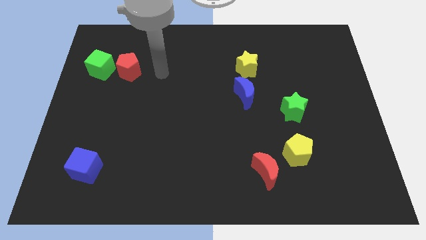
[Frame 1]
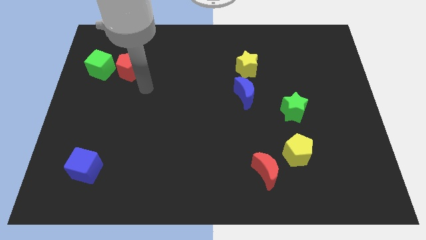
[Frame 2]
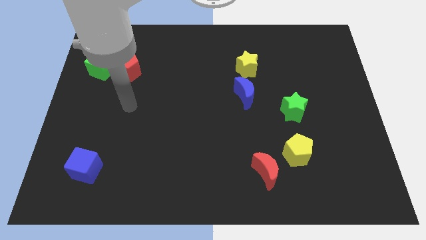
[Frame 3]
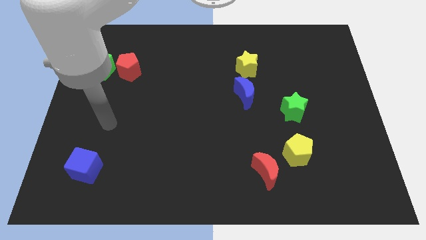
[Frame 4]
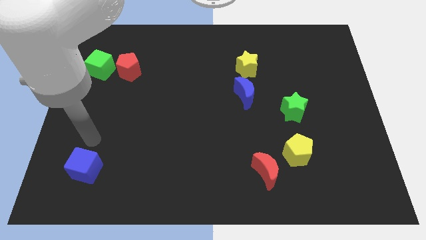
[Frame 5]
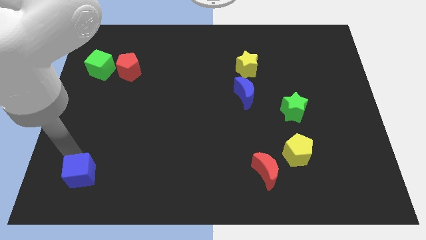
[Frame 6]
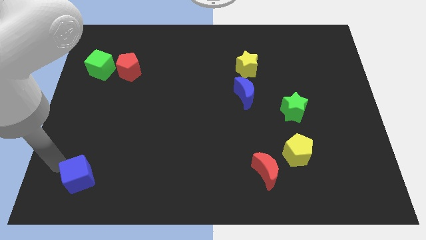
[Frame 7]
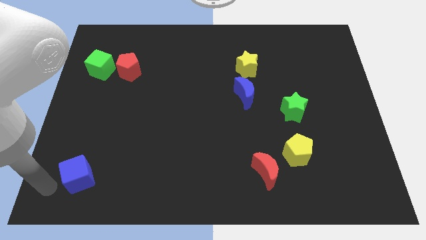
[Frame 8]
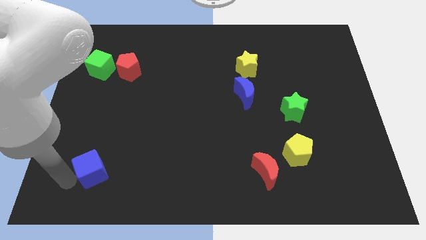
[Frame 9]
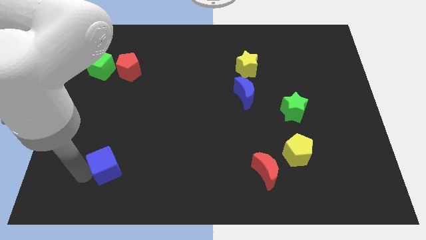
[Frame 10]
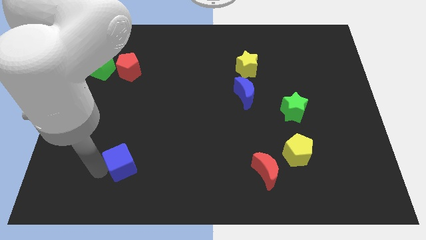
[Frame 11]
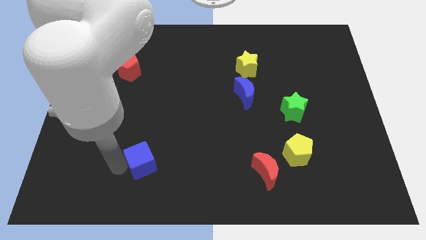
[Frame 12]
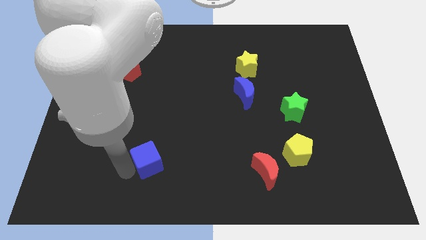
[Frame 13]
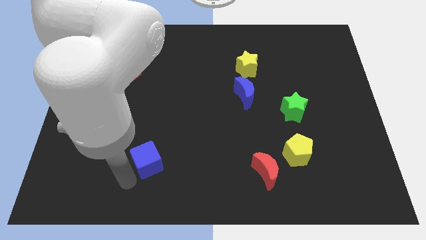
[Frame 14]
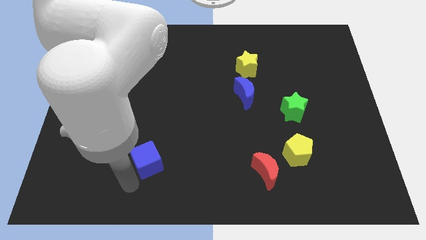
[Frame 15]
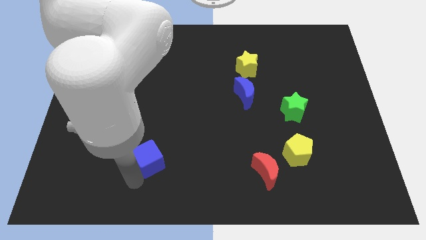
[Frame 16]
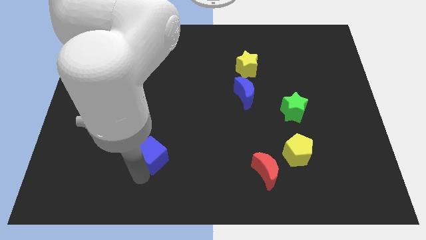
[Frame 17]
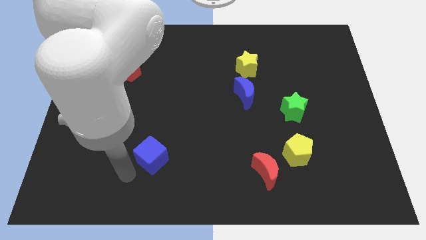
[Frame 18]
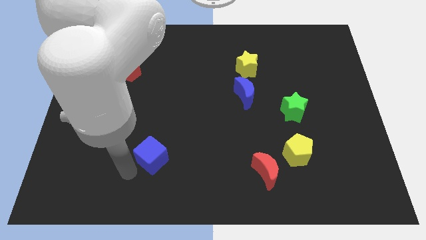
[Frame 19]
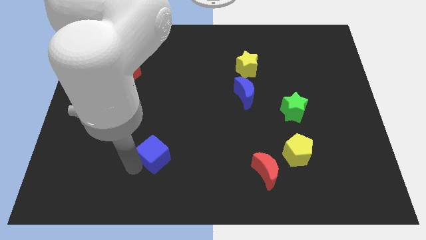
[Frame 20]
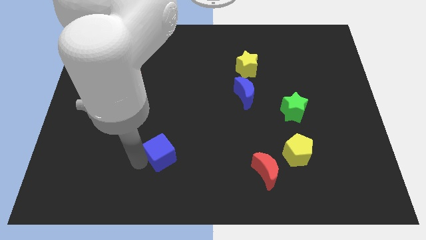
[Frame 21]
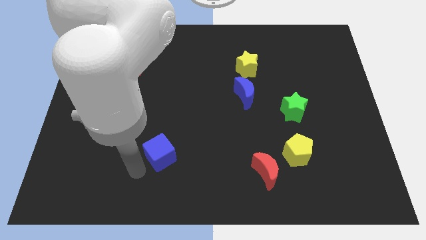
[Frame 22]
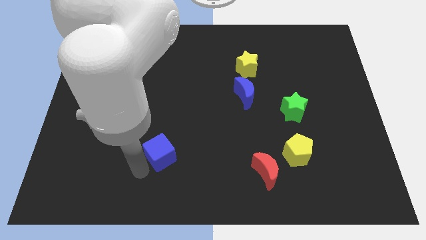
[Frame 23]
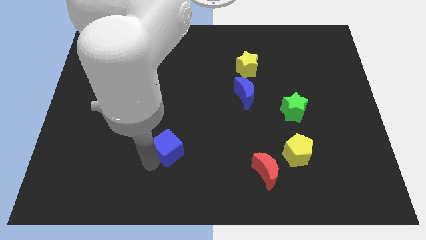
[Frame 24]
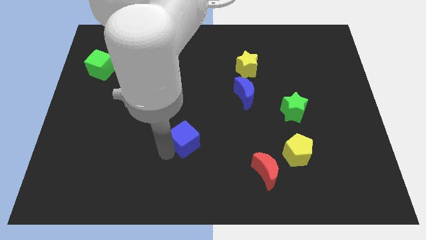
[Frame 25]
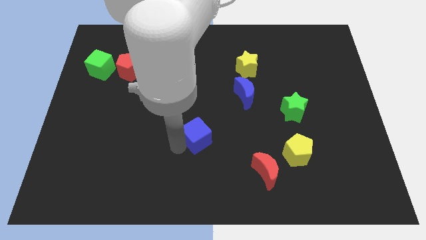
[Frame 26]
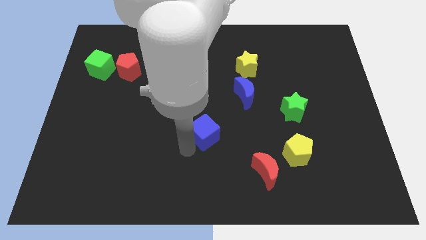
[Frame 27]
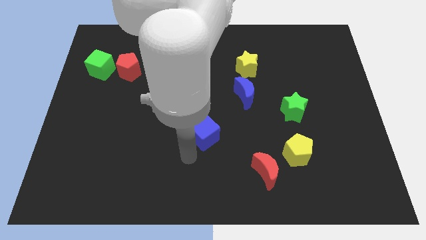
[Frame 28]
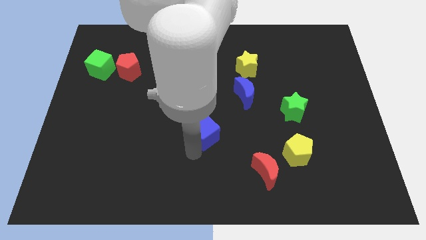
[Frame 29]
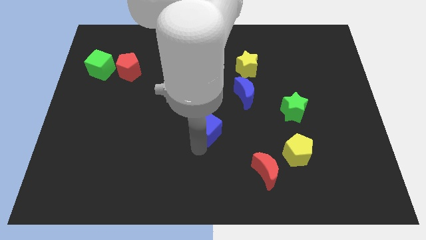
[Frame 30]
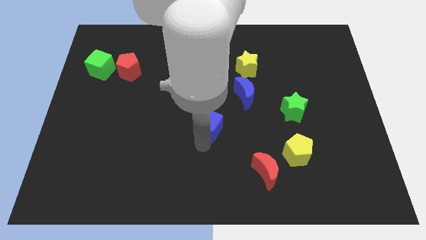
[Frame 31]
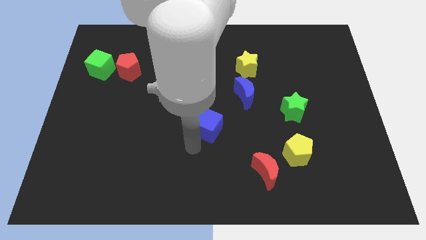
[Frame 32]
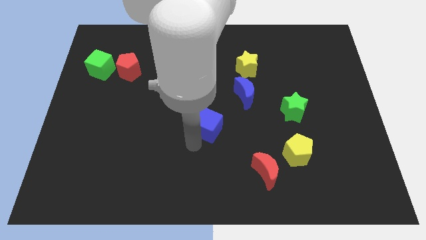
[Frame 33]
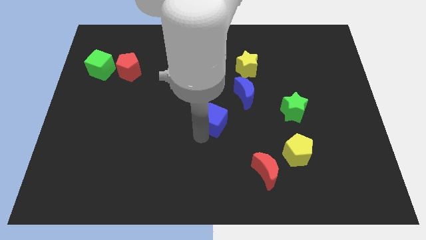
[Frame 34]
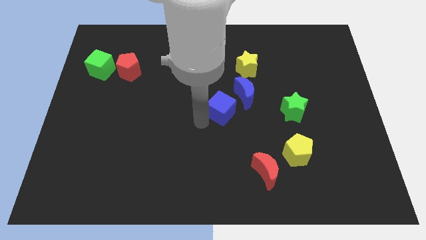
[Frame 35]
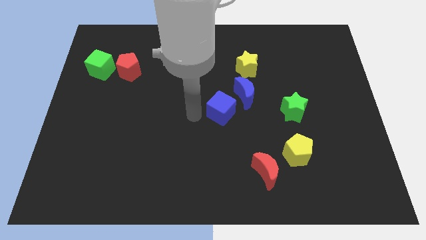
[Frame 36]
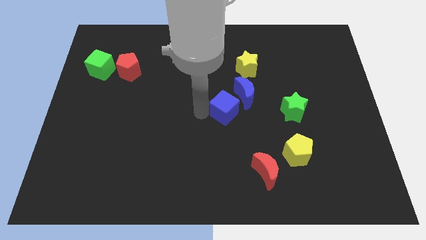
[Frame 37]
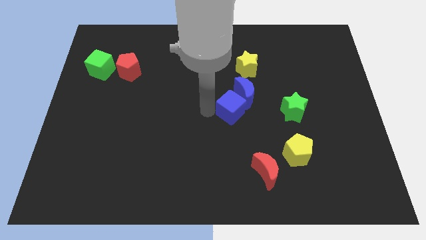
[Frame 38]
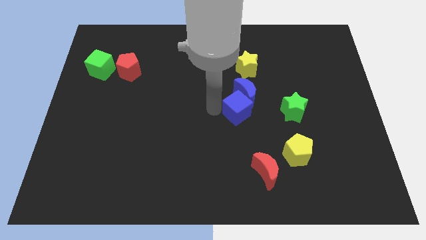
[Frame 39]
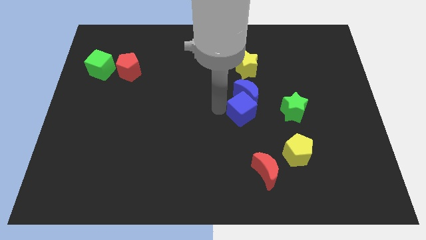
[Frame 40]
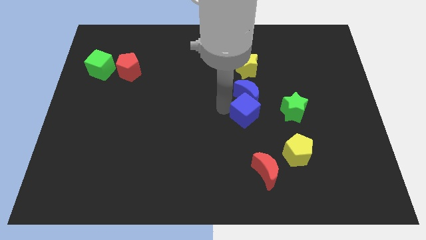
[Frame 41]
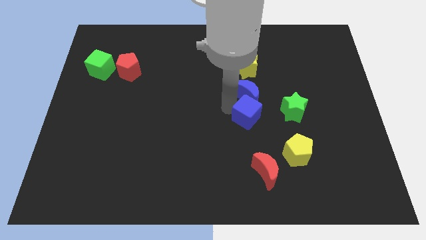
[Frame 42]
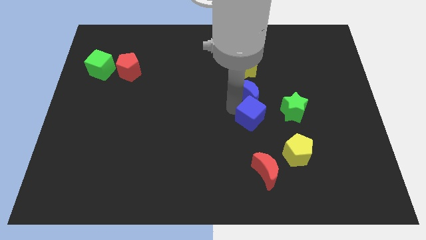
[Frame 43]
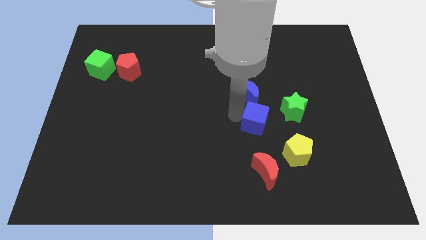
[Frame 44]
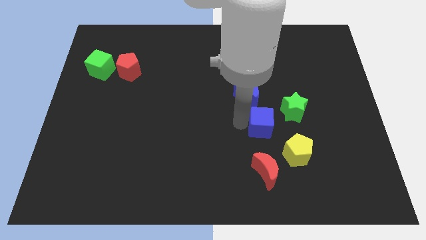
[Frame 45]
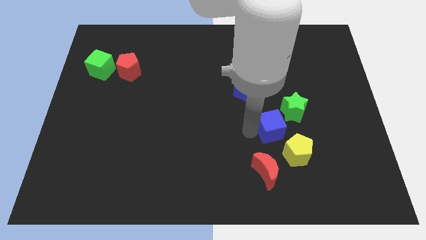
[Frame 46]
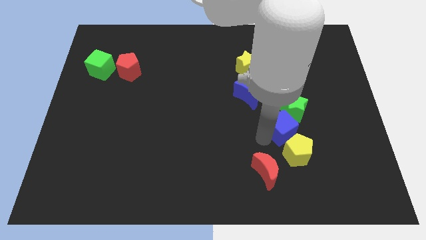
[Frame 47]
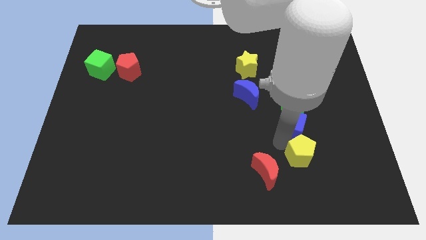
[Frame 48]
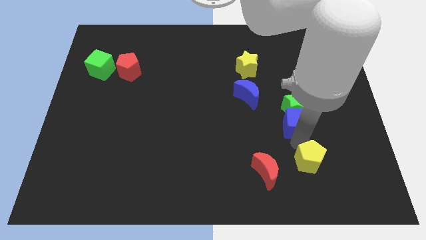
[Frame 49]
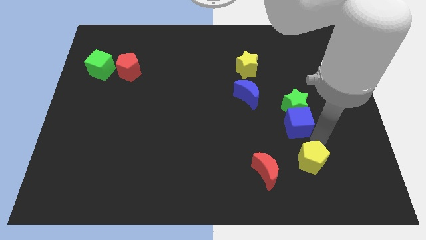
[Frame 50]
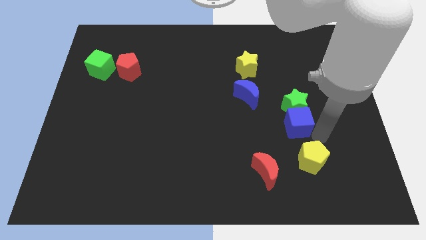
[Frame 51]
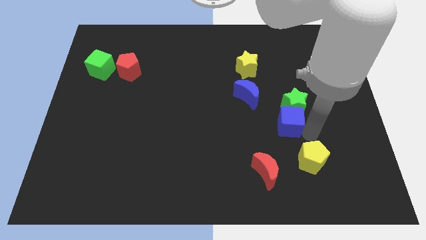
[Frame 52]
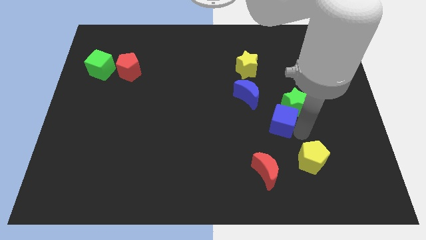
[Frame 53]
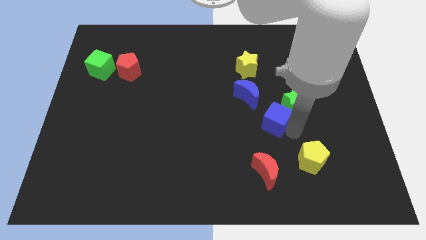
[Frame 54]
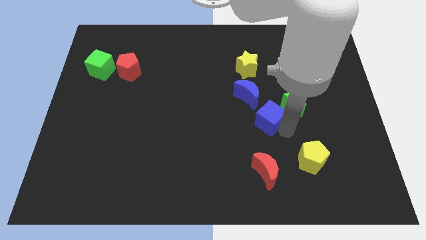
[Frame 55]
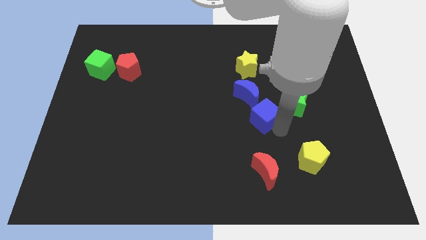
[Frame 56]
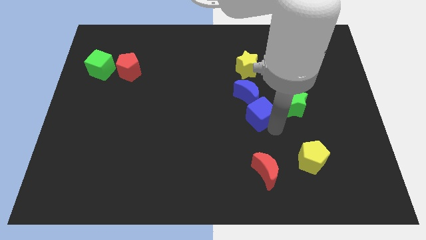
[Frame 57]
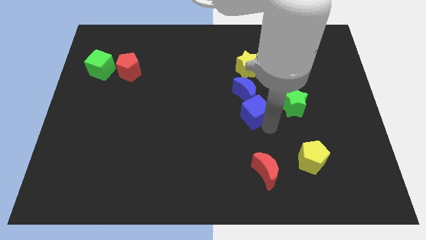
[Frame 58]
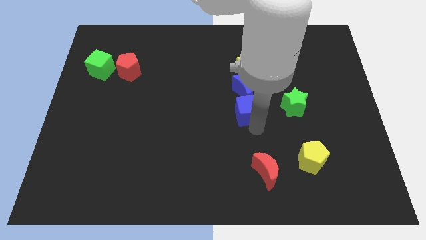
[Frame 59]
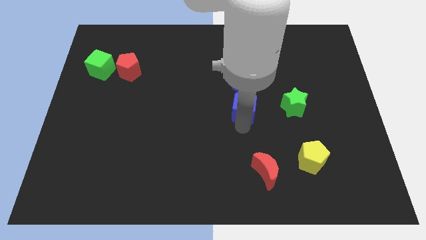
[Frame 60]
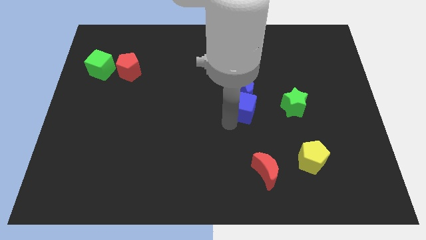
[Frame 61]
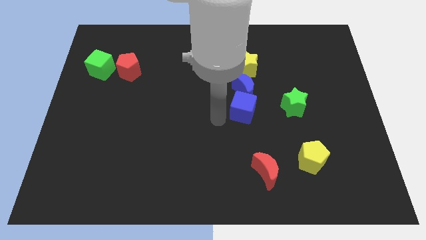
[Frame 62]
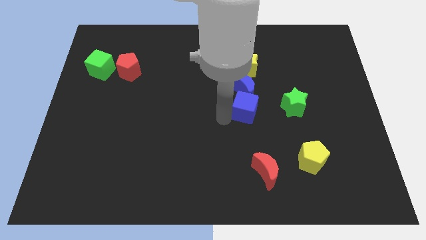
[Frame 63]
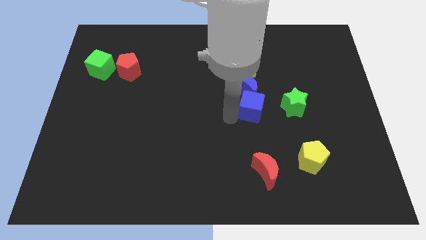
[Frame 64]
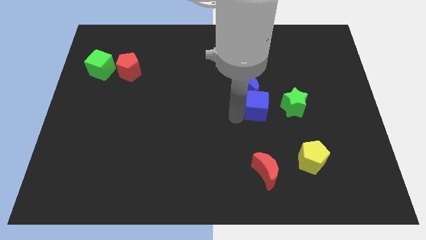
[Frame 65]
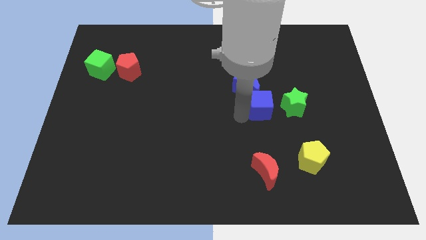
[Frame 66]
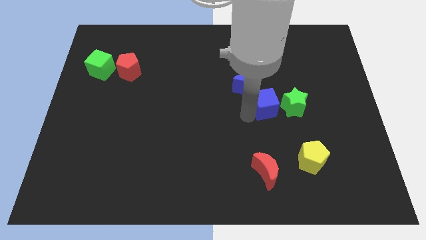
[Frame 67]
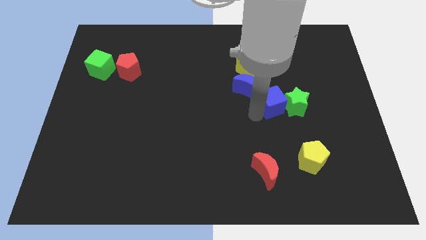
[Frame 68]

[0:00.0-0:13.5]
slide the blue cube to the right of the blue moon

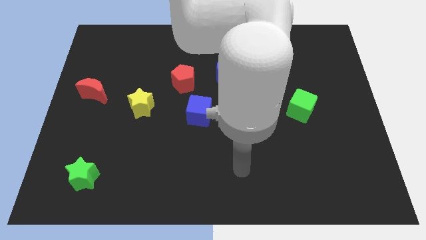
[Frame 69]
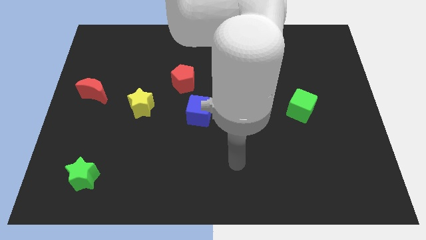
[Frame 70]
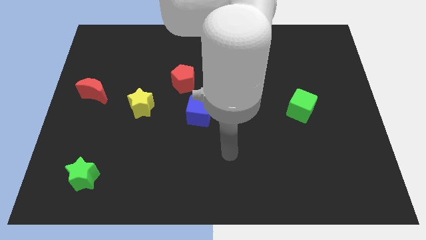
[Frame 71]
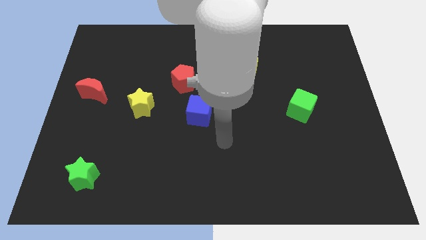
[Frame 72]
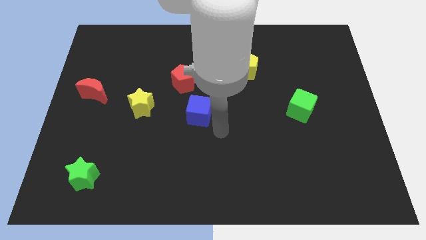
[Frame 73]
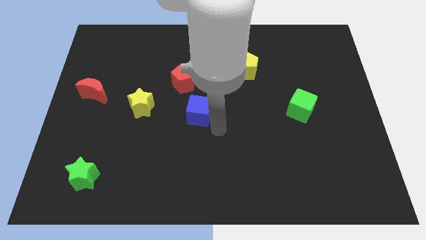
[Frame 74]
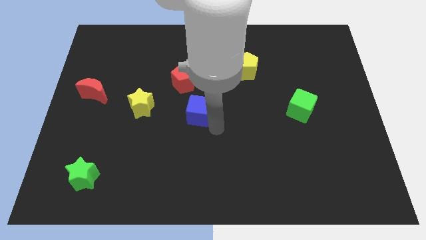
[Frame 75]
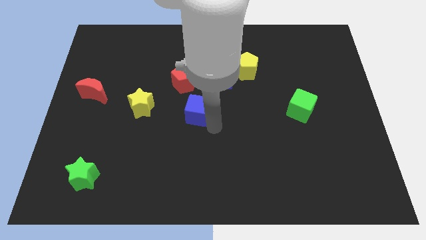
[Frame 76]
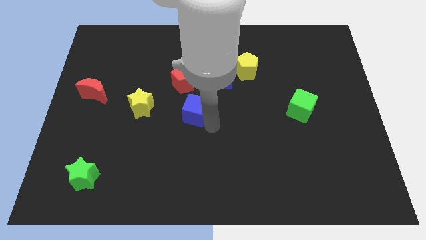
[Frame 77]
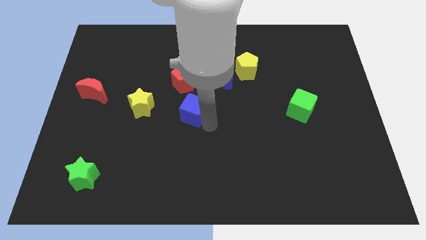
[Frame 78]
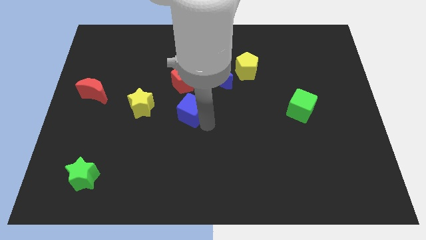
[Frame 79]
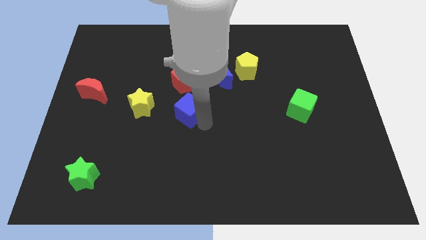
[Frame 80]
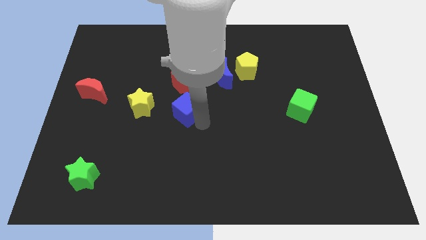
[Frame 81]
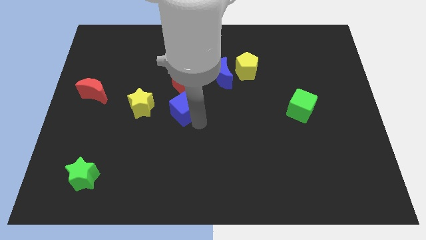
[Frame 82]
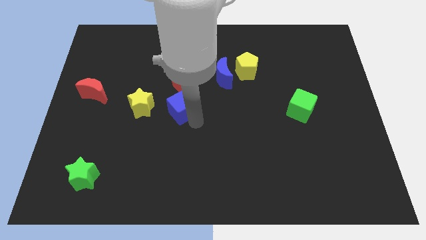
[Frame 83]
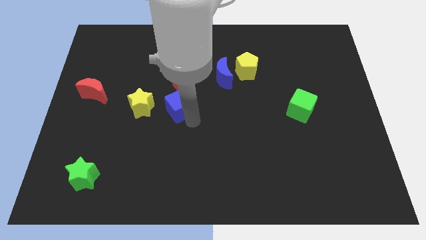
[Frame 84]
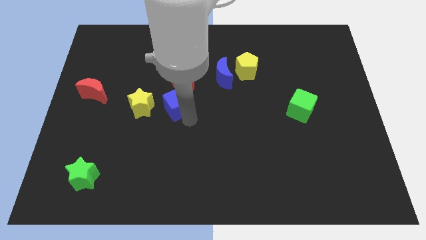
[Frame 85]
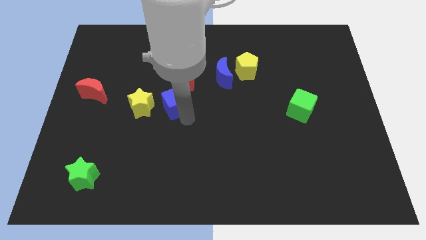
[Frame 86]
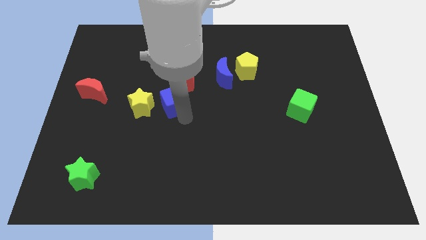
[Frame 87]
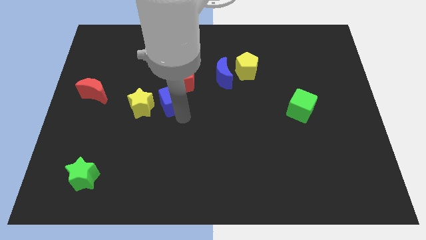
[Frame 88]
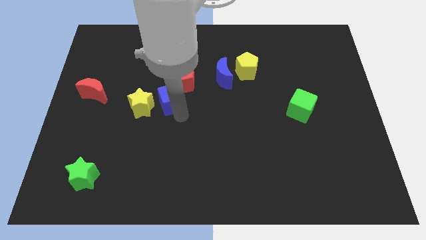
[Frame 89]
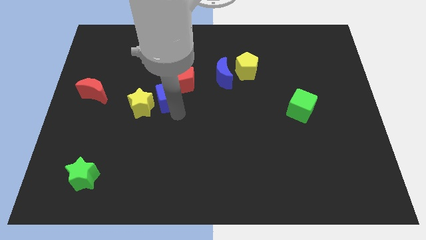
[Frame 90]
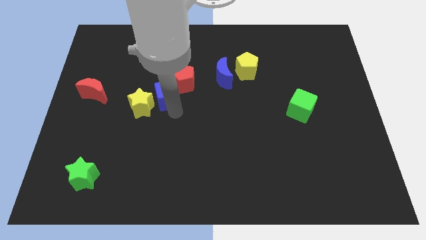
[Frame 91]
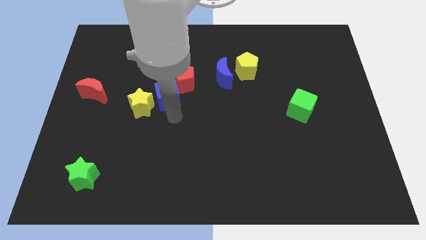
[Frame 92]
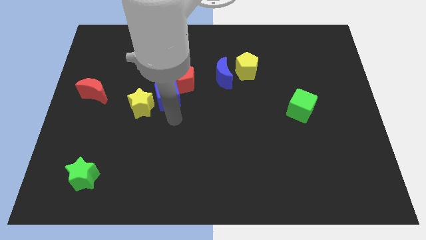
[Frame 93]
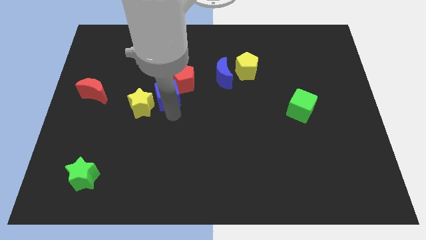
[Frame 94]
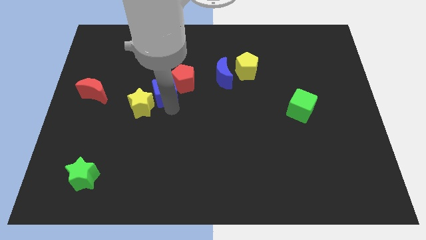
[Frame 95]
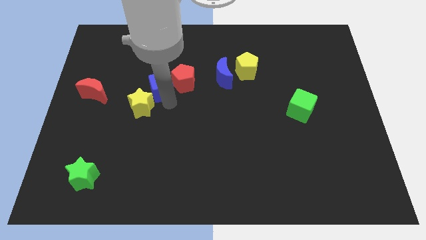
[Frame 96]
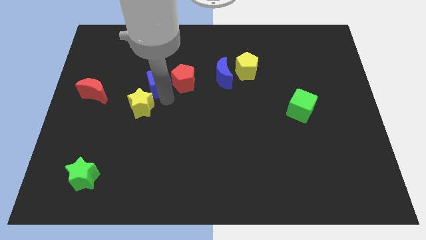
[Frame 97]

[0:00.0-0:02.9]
move the blue cube to the top left side of the red pentagon
